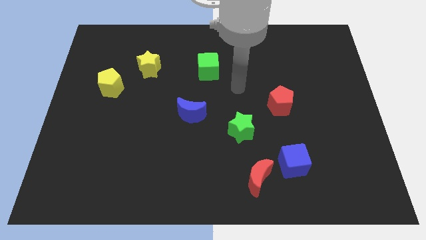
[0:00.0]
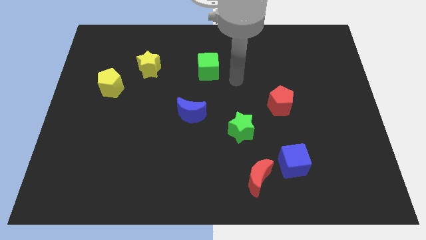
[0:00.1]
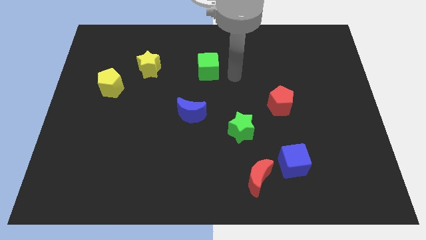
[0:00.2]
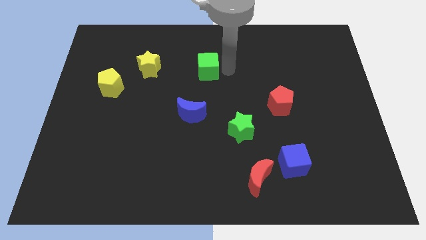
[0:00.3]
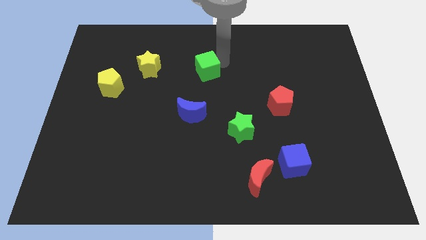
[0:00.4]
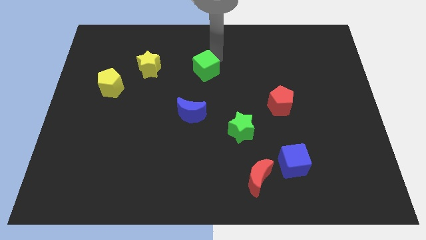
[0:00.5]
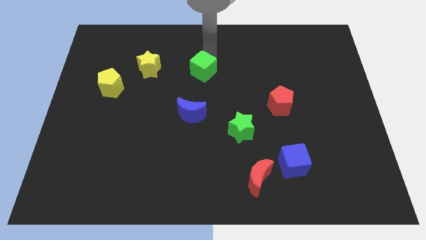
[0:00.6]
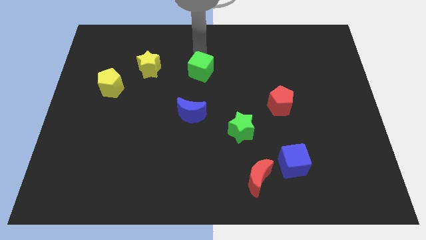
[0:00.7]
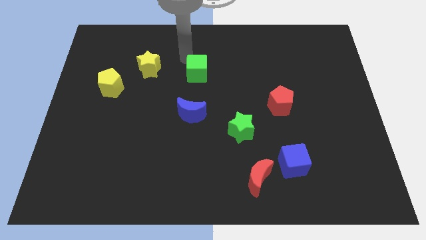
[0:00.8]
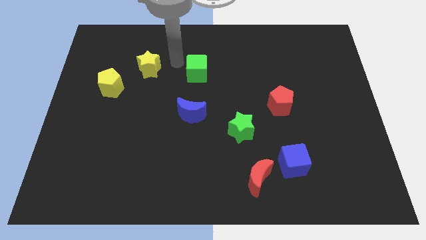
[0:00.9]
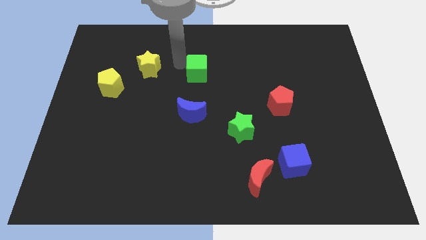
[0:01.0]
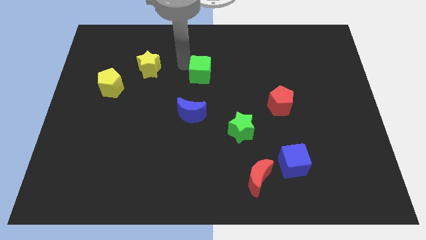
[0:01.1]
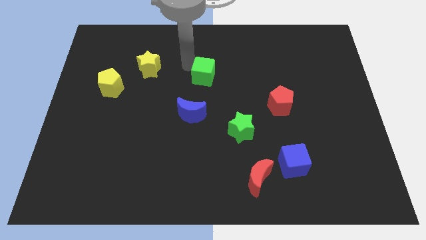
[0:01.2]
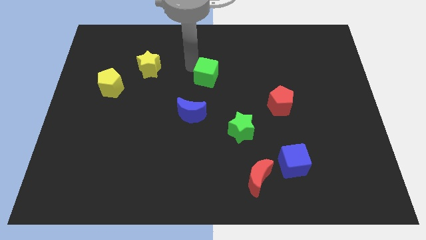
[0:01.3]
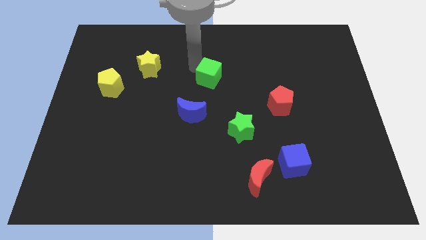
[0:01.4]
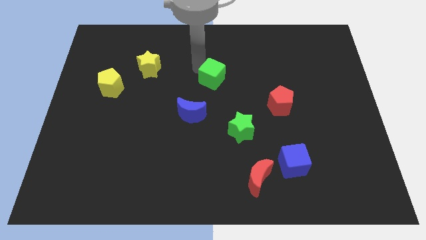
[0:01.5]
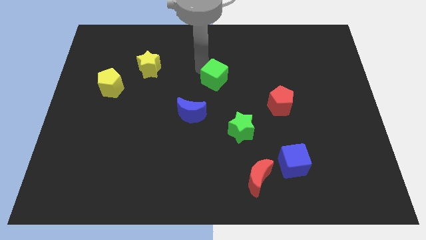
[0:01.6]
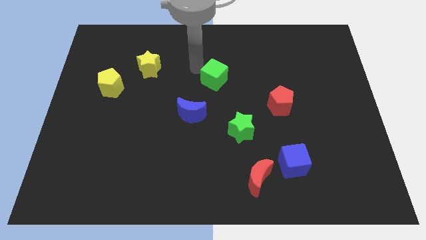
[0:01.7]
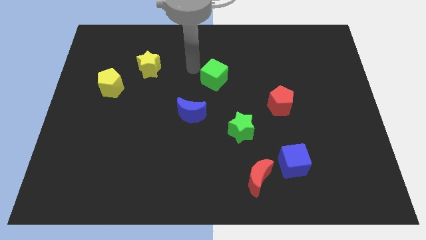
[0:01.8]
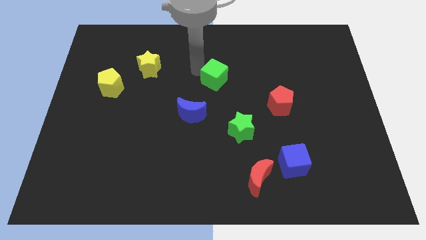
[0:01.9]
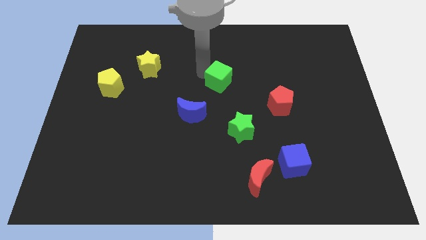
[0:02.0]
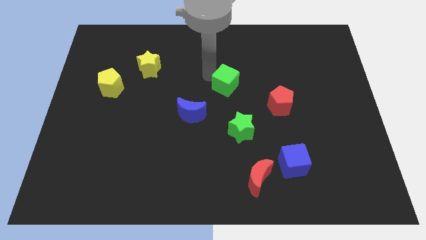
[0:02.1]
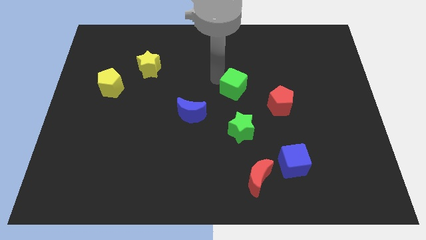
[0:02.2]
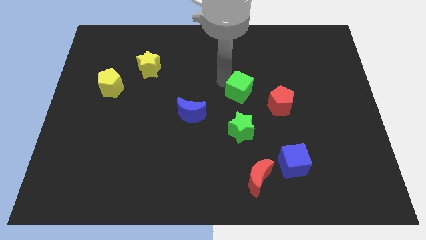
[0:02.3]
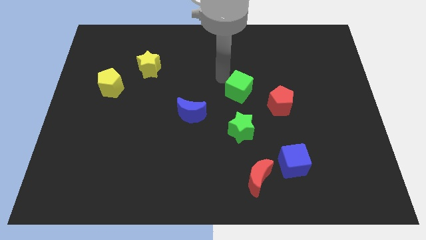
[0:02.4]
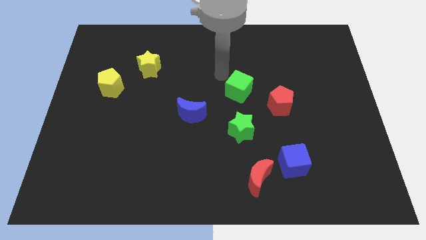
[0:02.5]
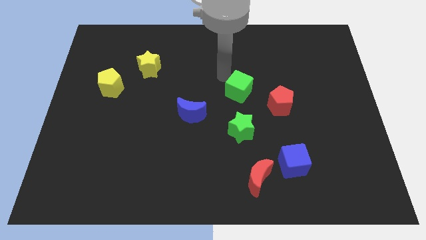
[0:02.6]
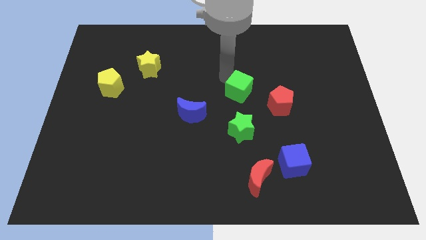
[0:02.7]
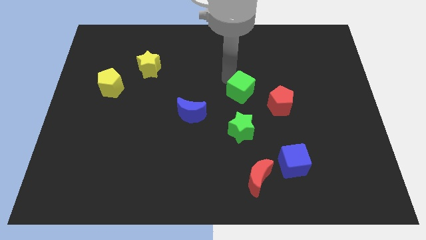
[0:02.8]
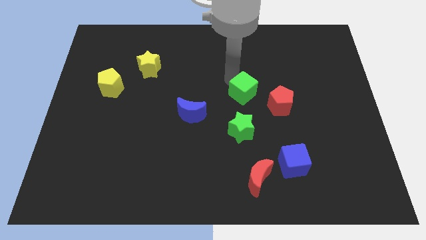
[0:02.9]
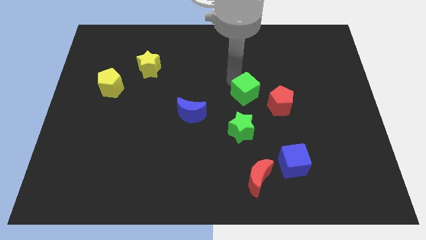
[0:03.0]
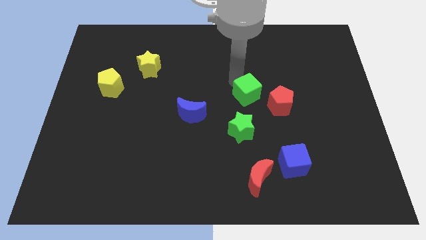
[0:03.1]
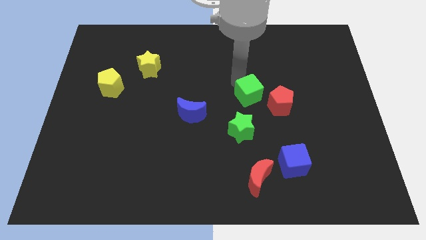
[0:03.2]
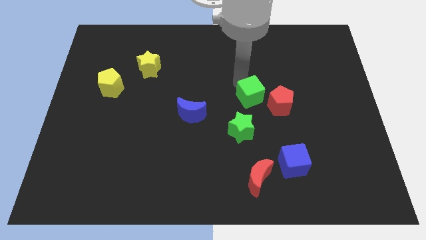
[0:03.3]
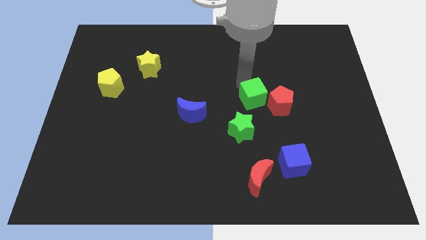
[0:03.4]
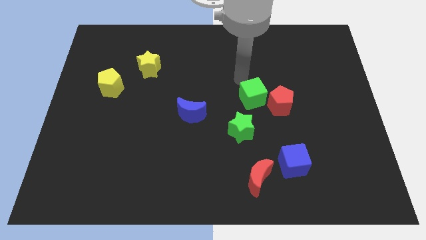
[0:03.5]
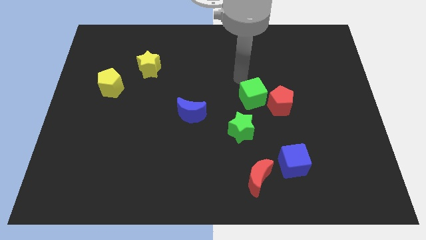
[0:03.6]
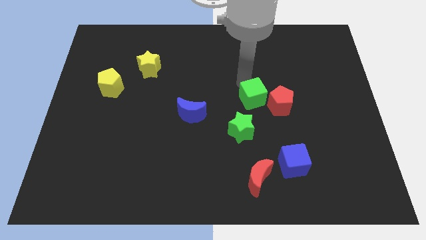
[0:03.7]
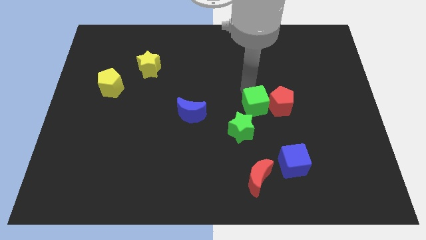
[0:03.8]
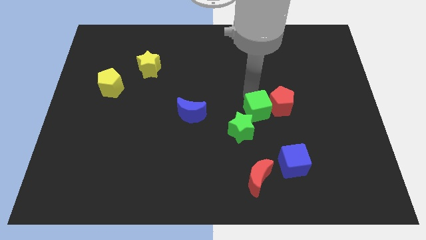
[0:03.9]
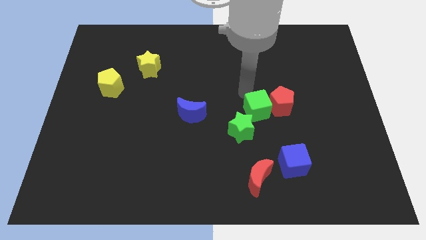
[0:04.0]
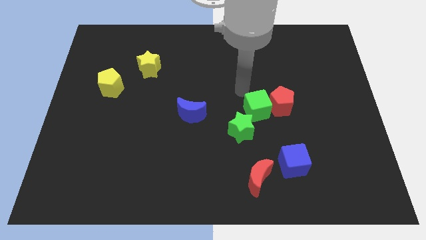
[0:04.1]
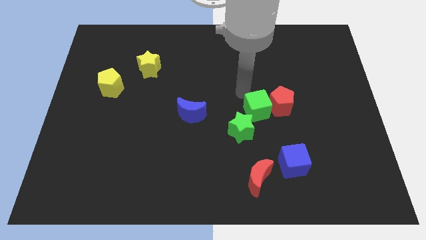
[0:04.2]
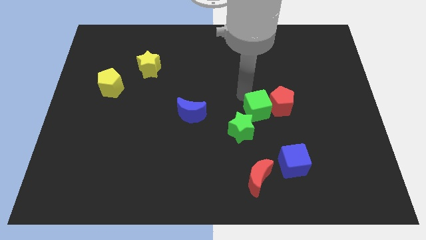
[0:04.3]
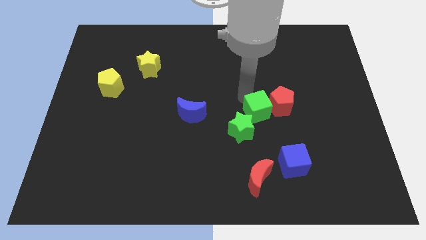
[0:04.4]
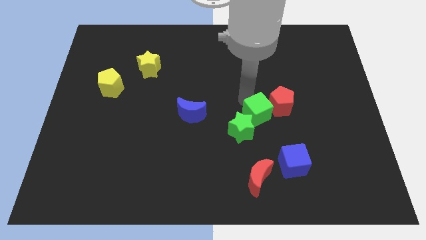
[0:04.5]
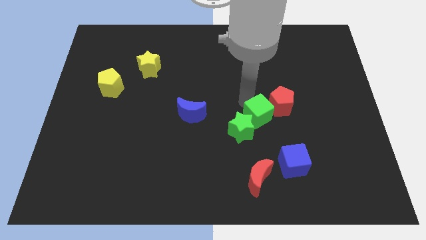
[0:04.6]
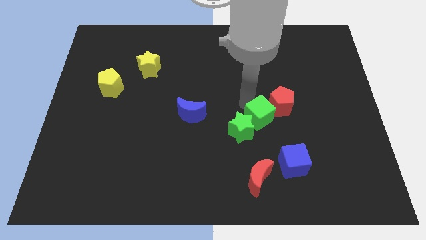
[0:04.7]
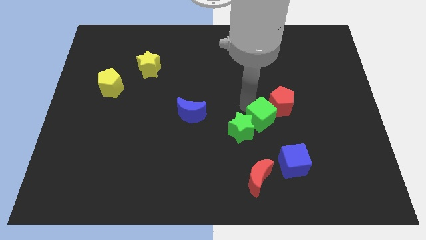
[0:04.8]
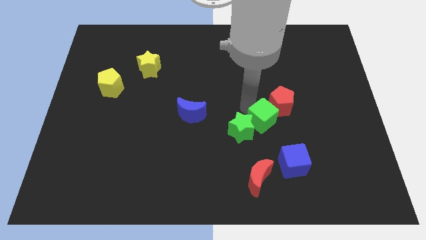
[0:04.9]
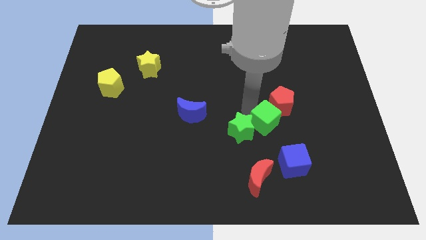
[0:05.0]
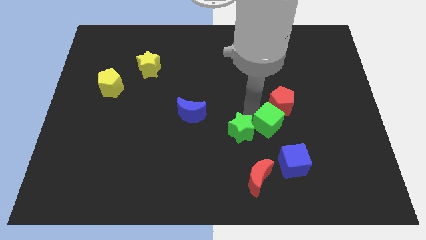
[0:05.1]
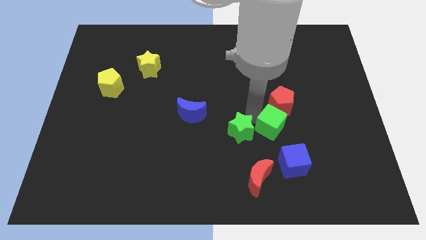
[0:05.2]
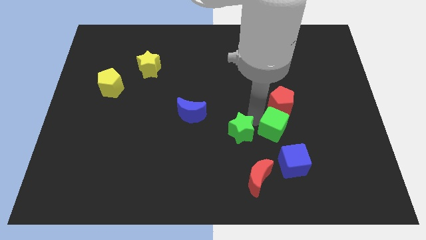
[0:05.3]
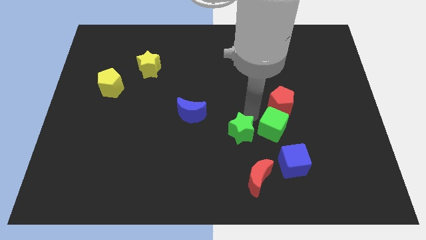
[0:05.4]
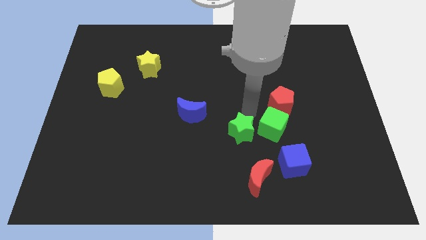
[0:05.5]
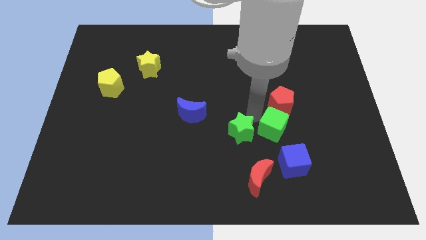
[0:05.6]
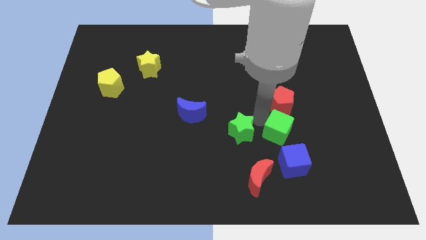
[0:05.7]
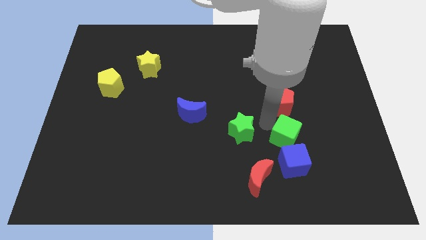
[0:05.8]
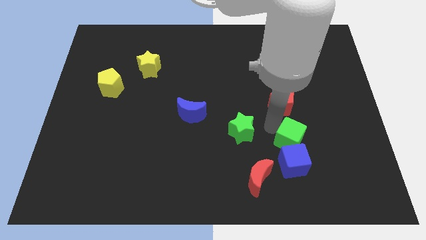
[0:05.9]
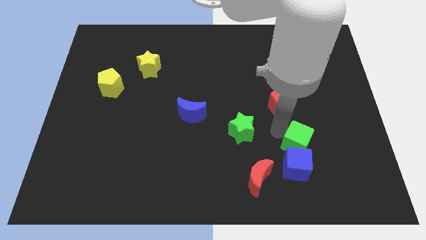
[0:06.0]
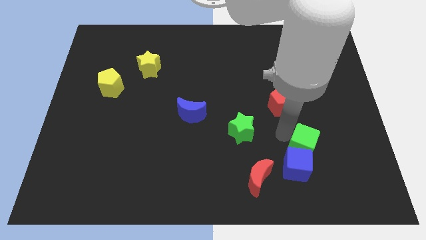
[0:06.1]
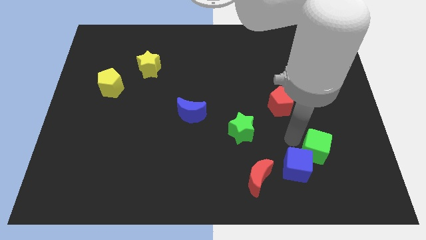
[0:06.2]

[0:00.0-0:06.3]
push the green cube right of the blue cube
